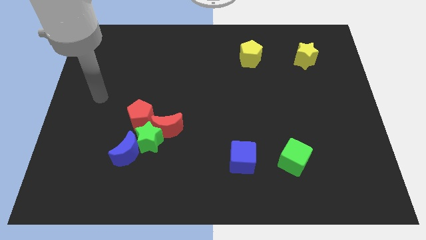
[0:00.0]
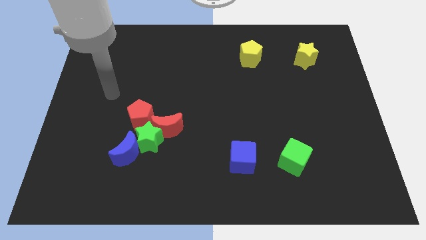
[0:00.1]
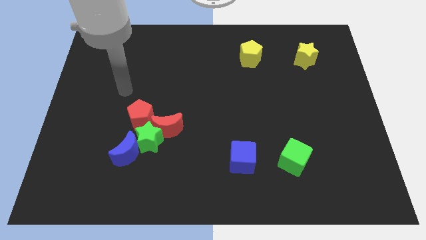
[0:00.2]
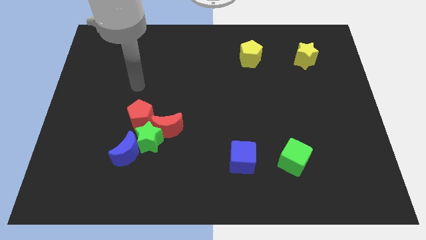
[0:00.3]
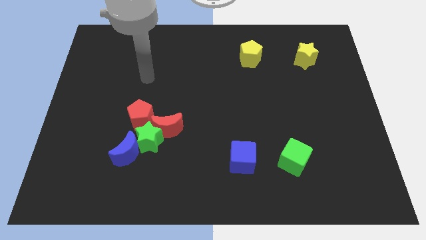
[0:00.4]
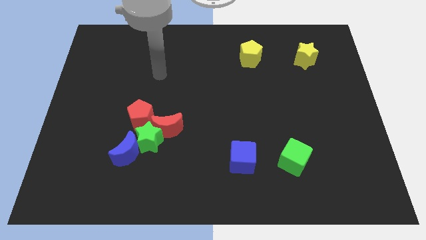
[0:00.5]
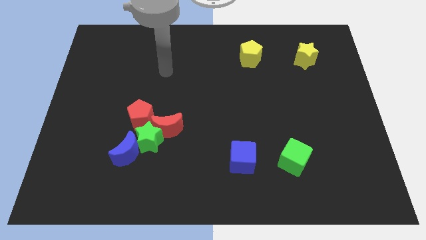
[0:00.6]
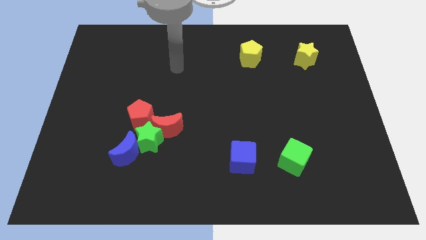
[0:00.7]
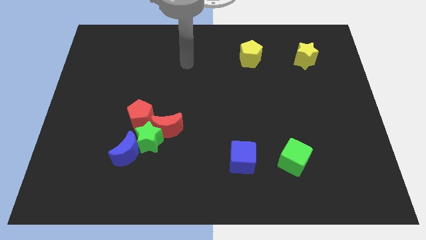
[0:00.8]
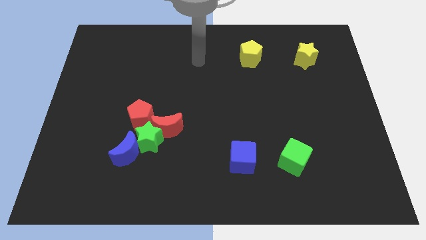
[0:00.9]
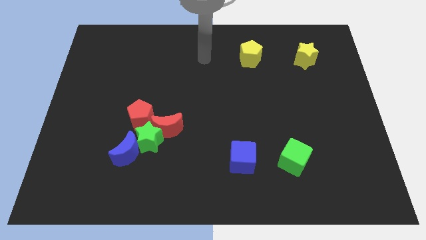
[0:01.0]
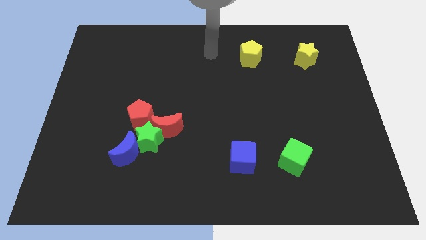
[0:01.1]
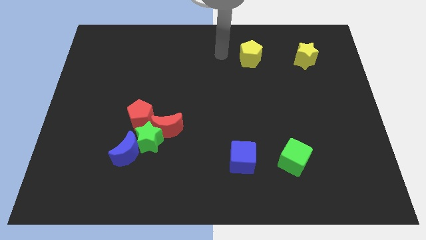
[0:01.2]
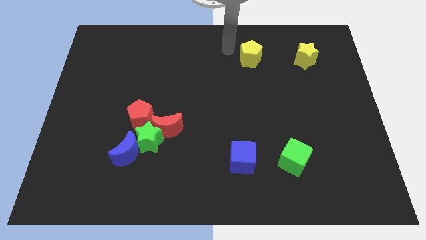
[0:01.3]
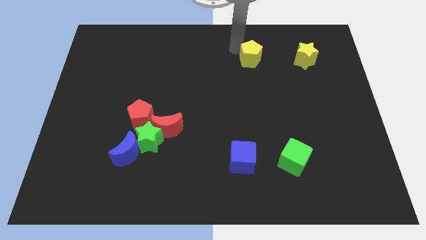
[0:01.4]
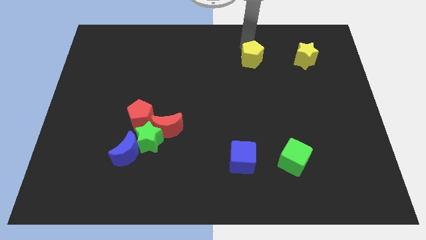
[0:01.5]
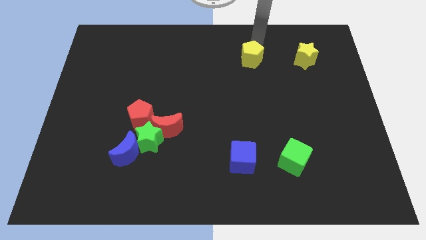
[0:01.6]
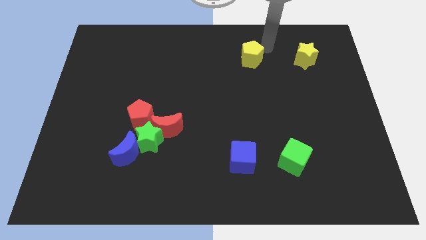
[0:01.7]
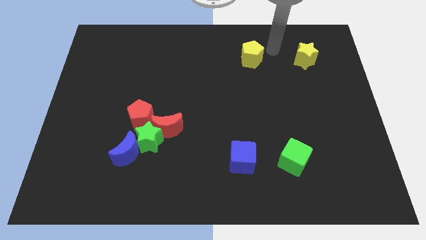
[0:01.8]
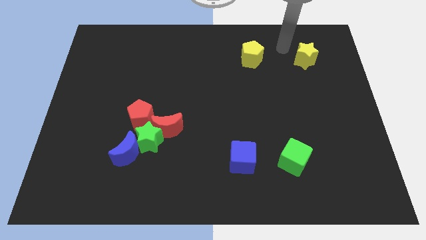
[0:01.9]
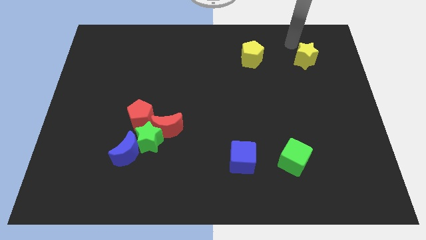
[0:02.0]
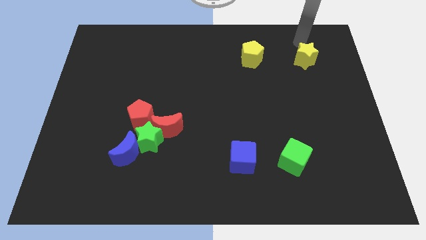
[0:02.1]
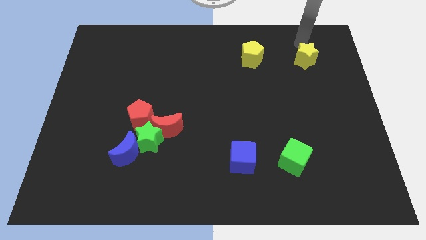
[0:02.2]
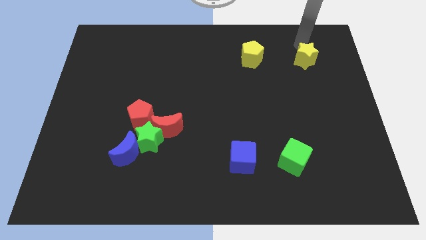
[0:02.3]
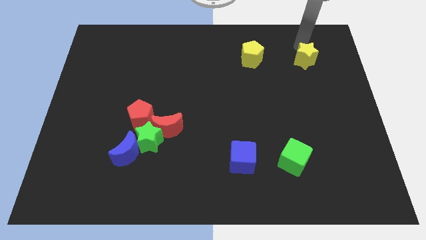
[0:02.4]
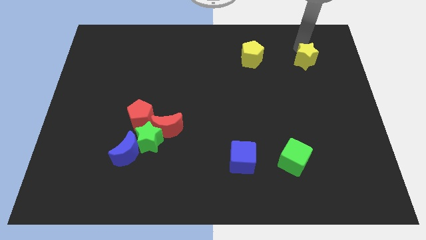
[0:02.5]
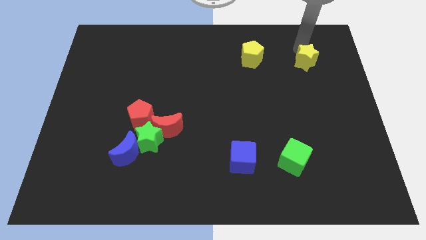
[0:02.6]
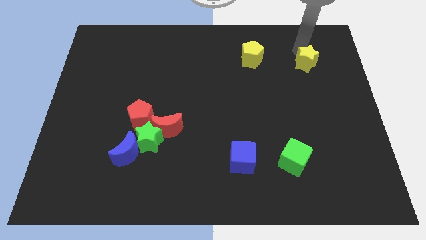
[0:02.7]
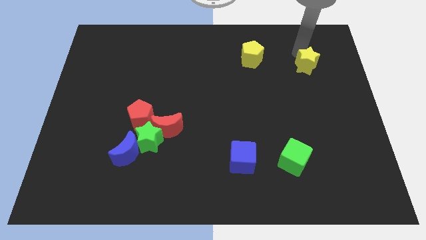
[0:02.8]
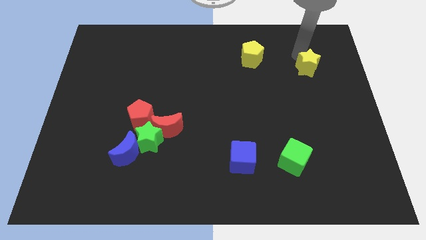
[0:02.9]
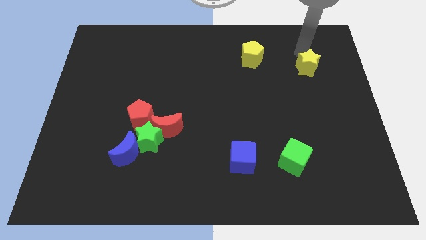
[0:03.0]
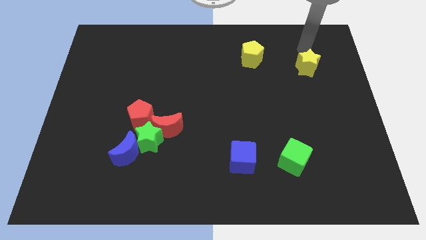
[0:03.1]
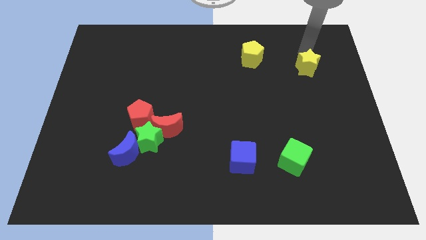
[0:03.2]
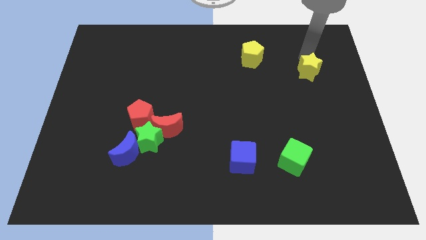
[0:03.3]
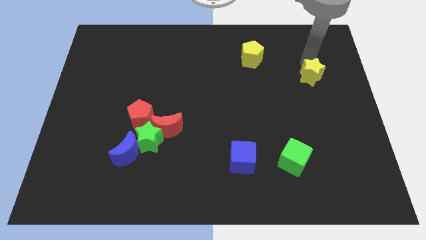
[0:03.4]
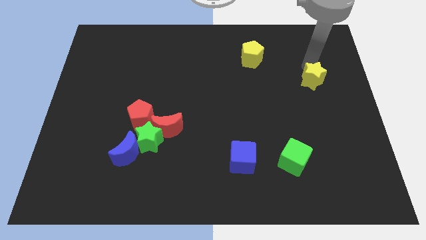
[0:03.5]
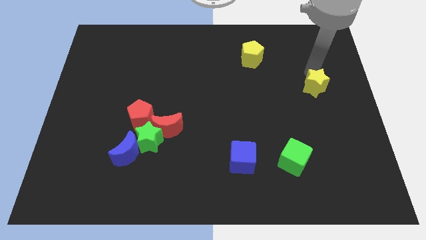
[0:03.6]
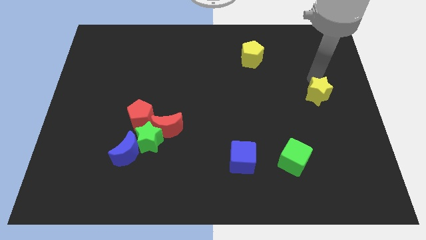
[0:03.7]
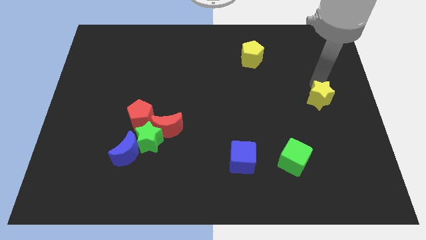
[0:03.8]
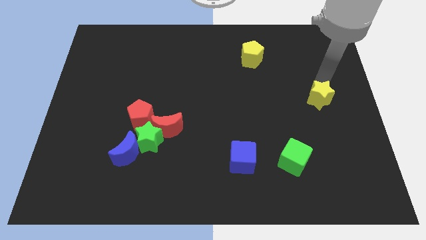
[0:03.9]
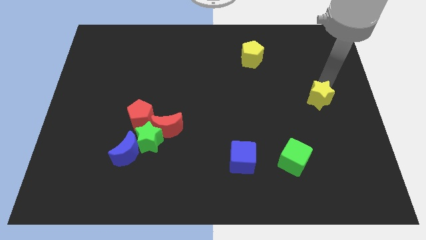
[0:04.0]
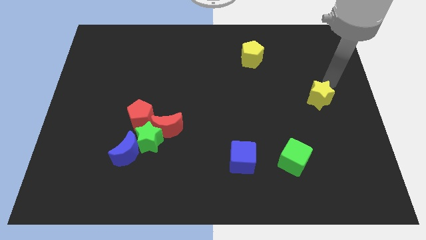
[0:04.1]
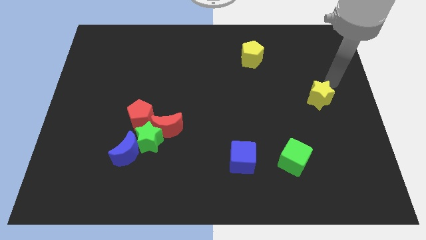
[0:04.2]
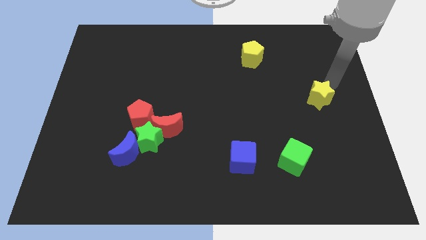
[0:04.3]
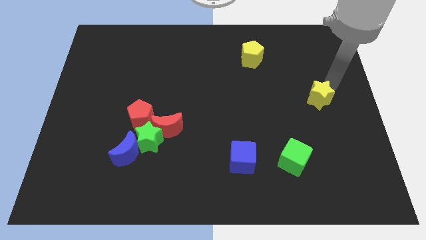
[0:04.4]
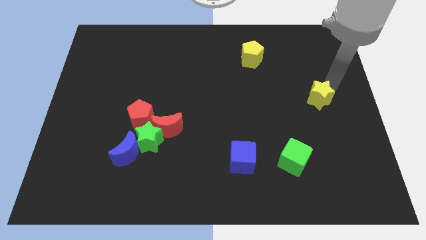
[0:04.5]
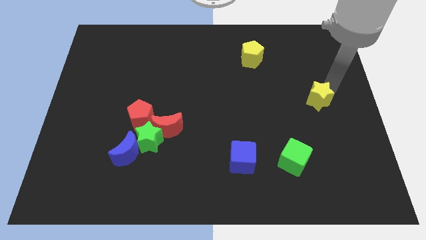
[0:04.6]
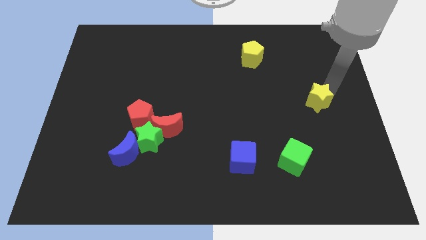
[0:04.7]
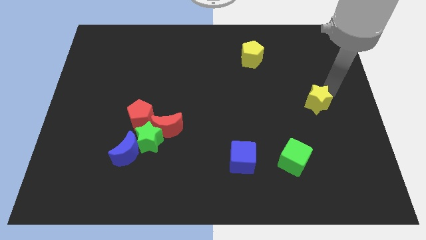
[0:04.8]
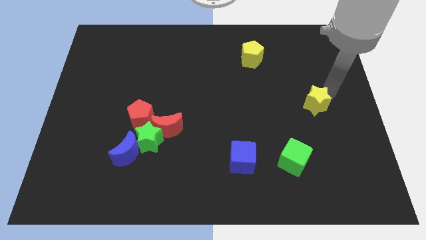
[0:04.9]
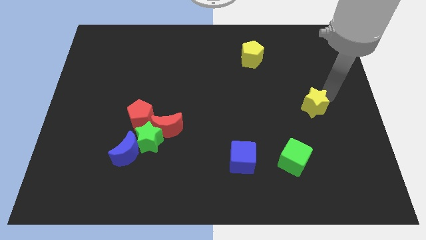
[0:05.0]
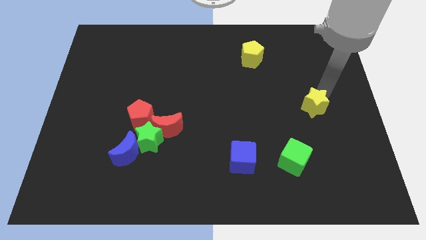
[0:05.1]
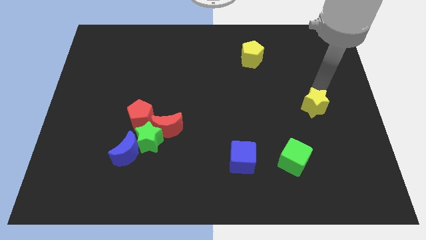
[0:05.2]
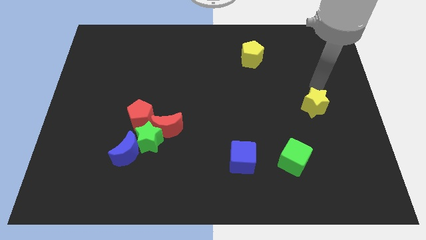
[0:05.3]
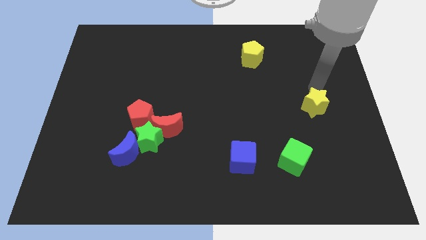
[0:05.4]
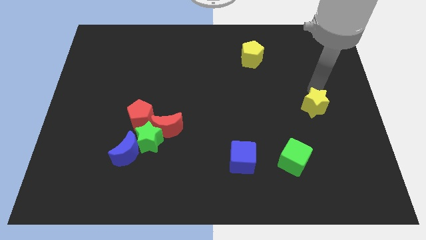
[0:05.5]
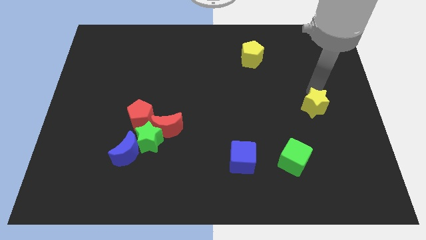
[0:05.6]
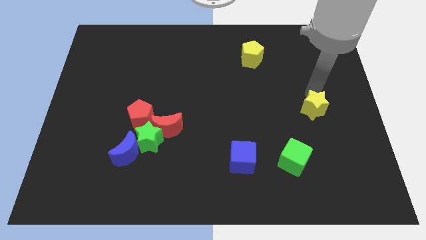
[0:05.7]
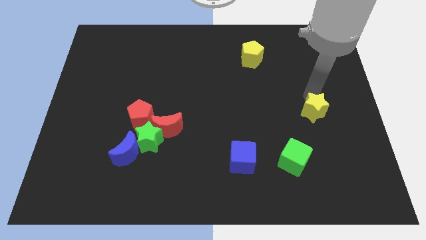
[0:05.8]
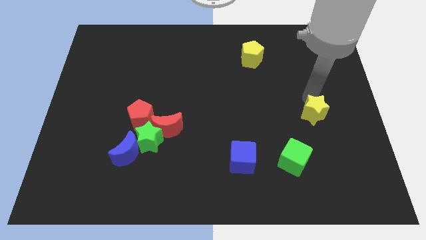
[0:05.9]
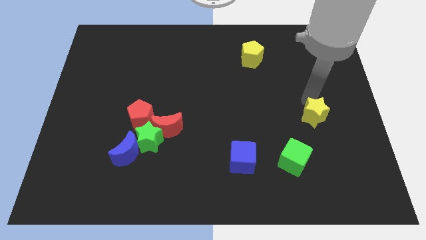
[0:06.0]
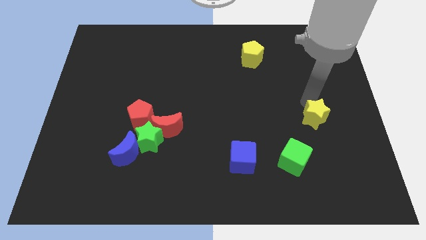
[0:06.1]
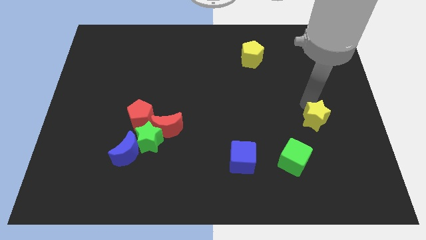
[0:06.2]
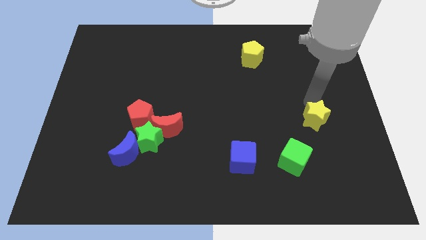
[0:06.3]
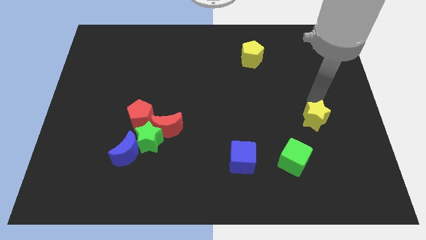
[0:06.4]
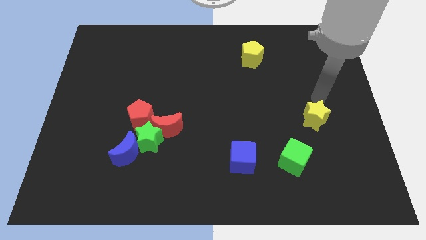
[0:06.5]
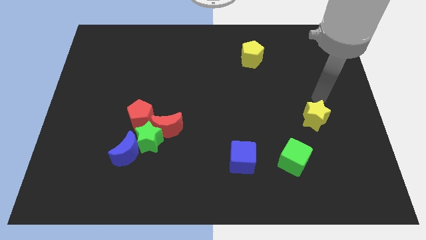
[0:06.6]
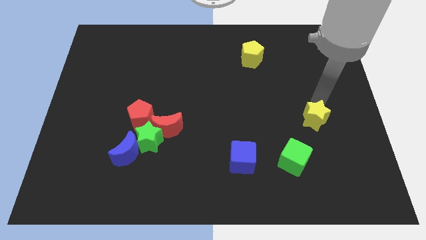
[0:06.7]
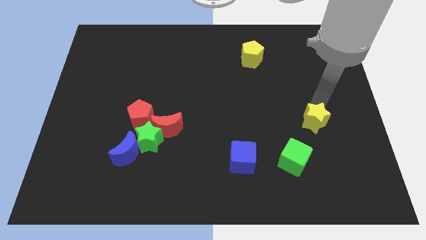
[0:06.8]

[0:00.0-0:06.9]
move the yellow star downwards

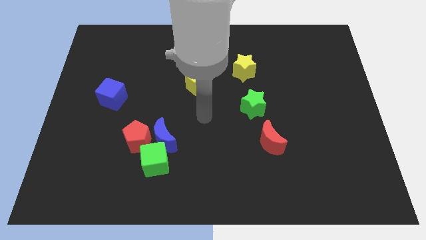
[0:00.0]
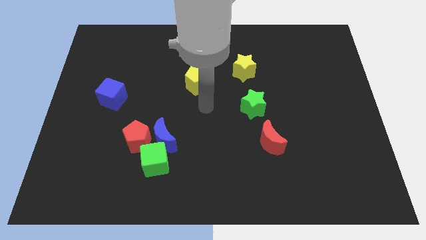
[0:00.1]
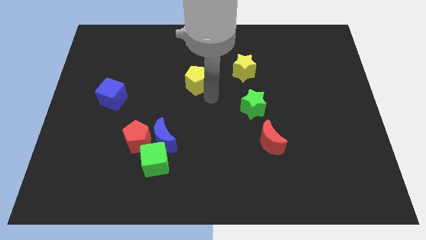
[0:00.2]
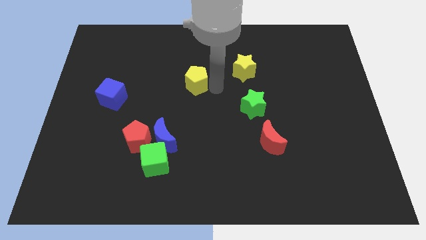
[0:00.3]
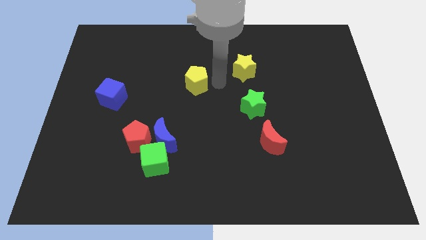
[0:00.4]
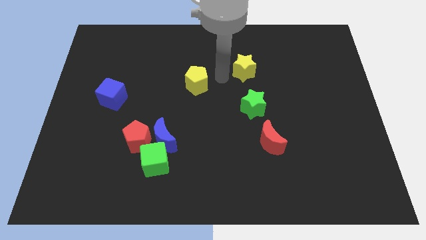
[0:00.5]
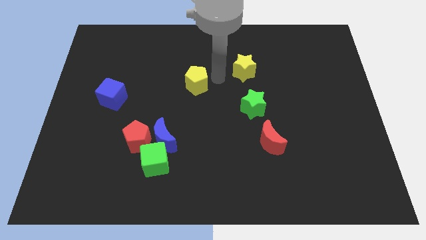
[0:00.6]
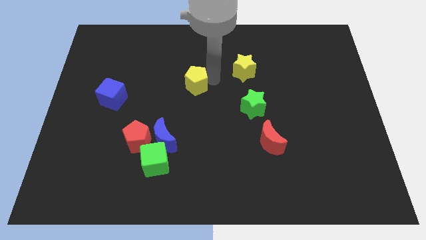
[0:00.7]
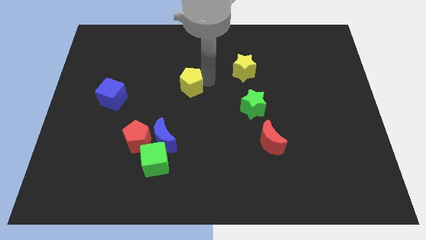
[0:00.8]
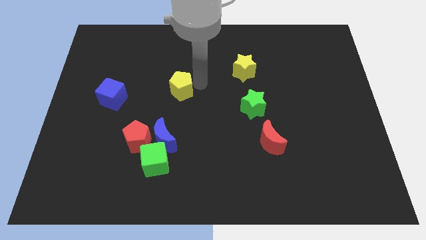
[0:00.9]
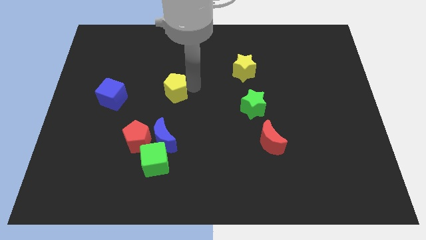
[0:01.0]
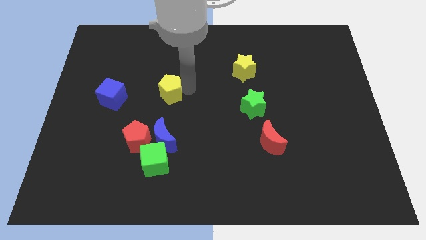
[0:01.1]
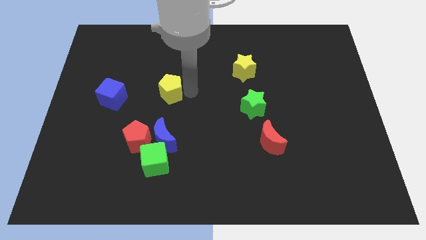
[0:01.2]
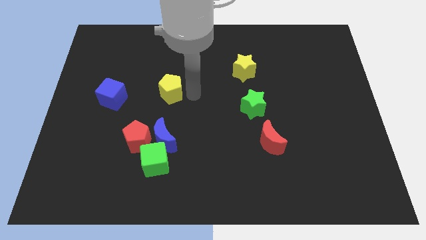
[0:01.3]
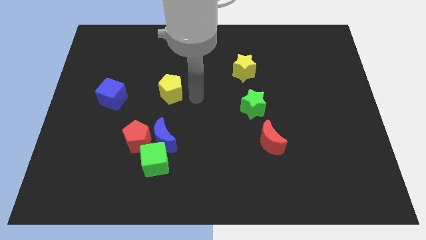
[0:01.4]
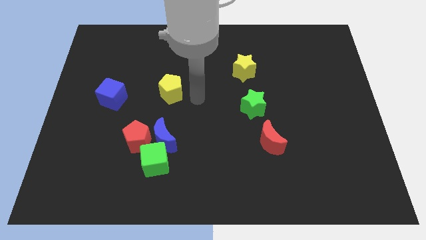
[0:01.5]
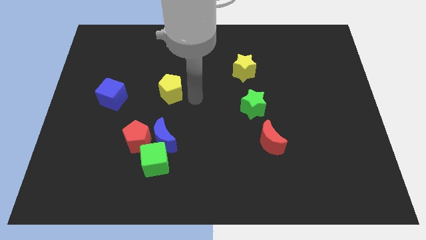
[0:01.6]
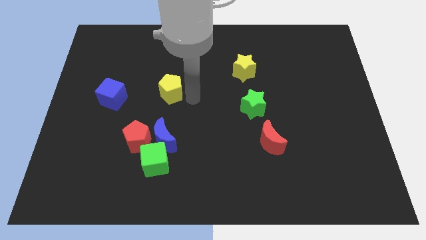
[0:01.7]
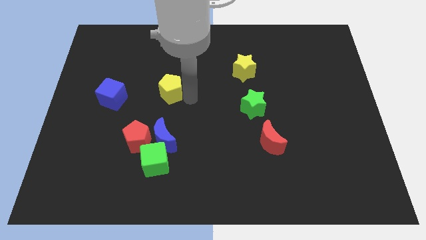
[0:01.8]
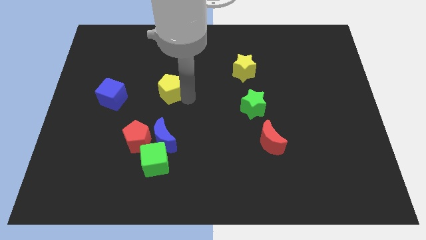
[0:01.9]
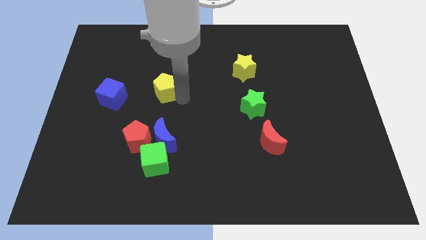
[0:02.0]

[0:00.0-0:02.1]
push the yellow pentagon left a little bit
